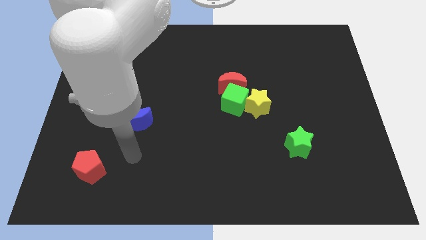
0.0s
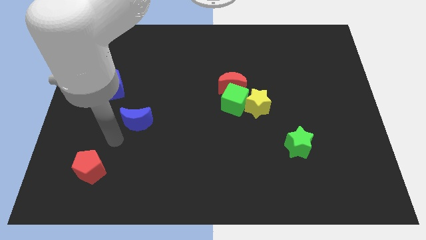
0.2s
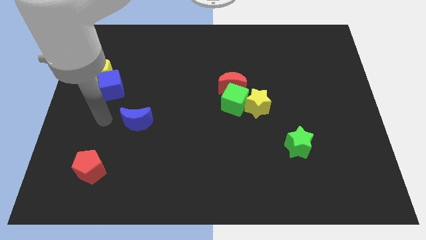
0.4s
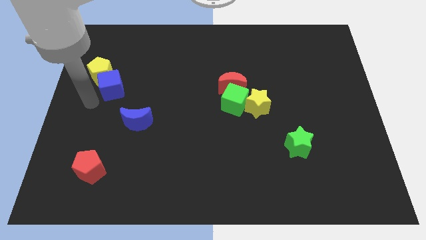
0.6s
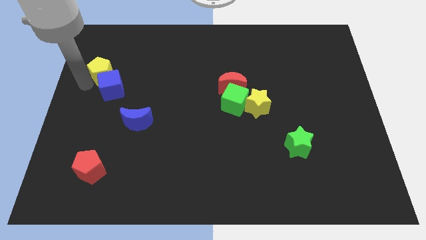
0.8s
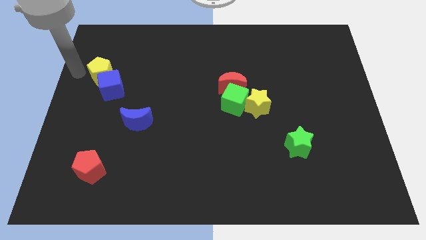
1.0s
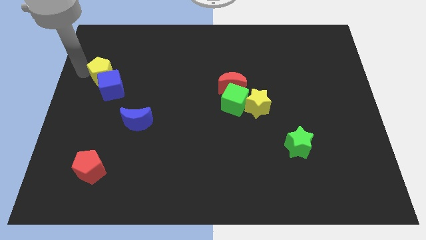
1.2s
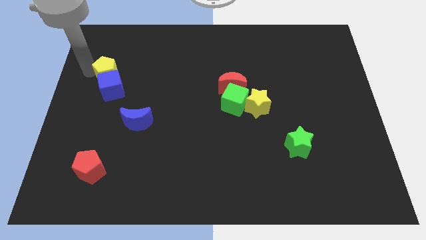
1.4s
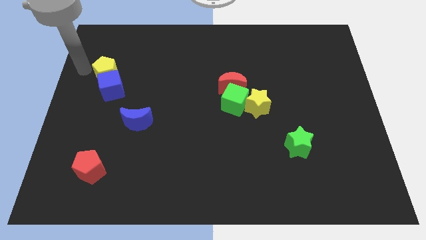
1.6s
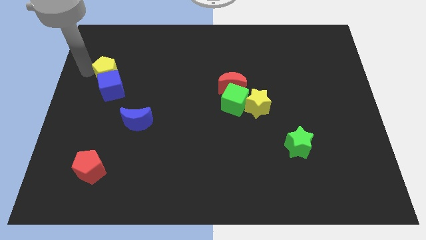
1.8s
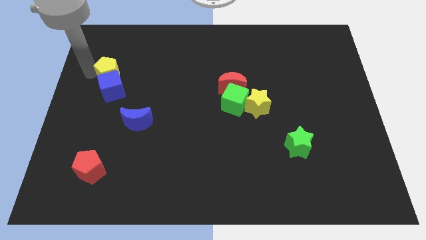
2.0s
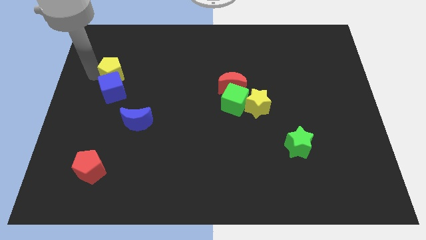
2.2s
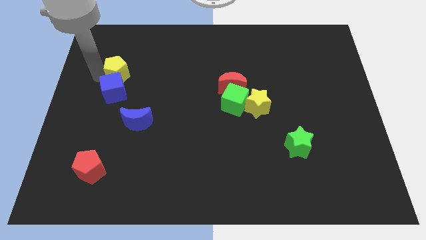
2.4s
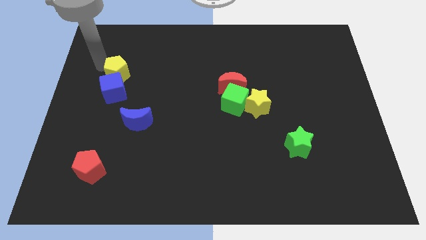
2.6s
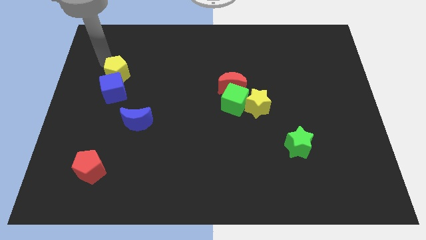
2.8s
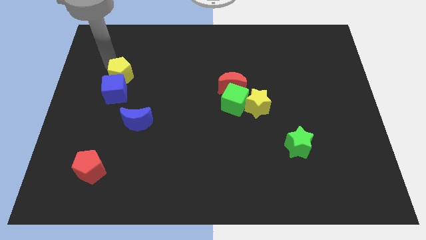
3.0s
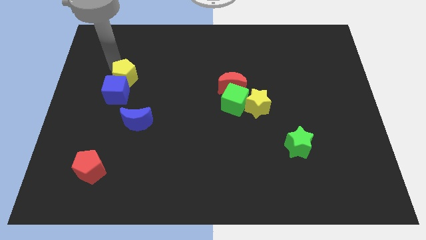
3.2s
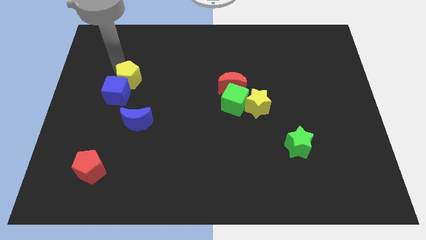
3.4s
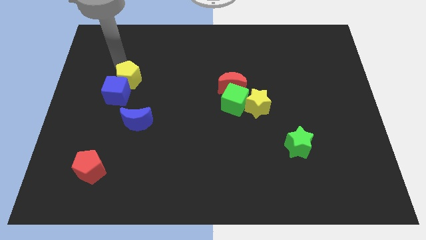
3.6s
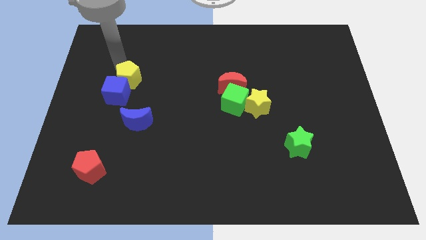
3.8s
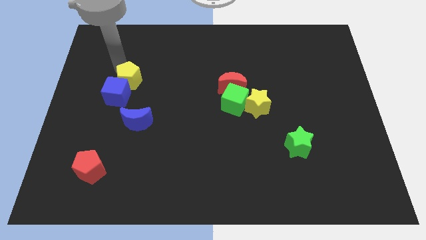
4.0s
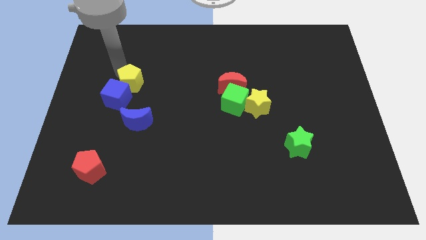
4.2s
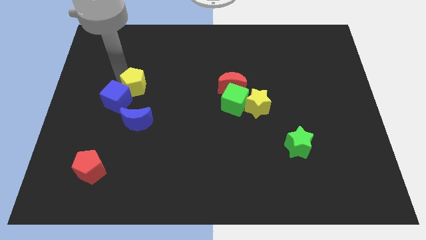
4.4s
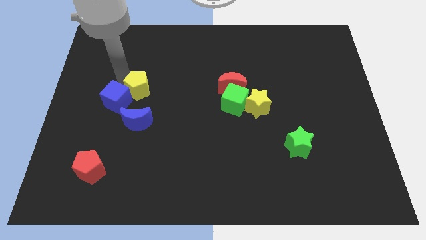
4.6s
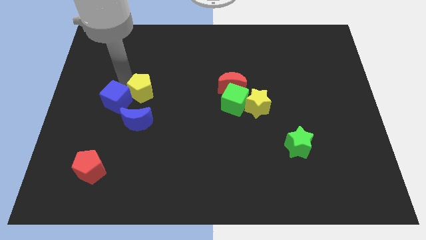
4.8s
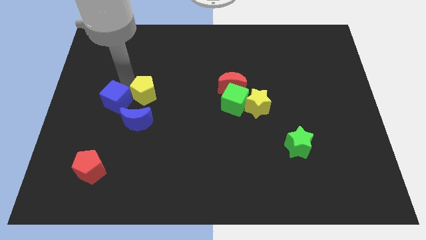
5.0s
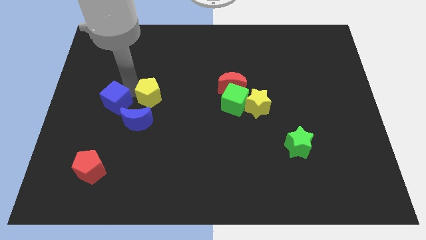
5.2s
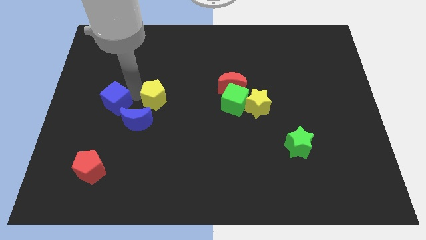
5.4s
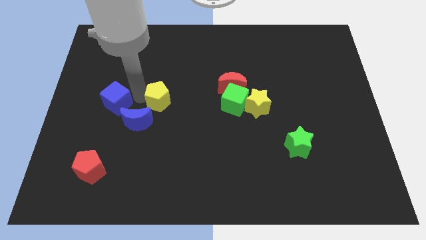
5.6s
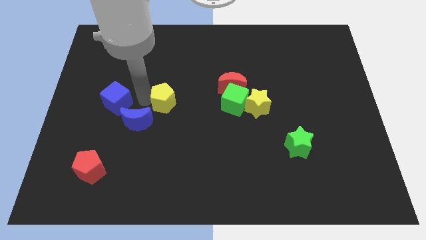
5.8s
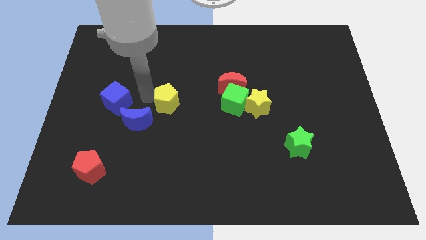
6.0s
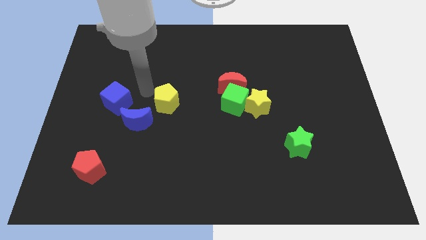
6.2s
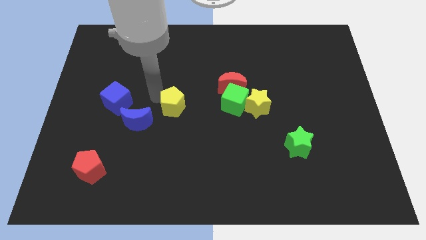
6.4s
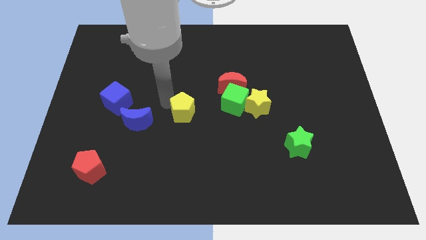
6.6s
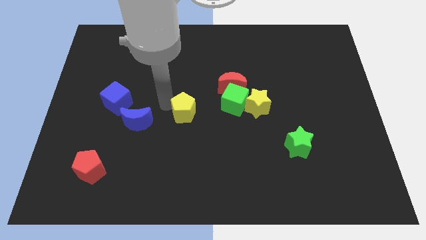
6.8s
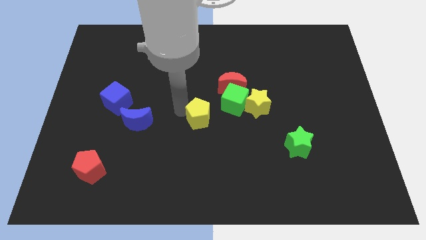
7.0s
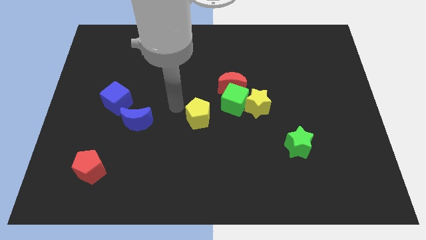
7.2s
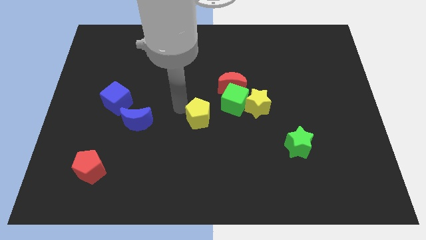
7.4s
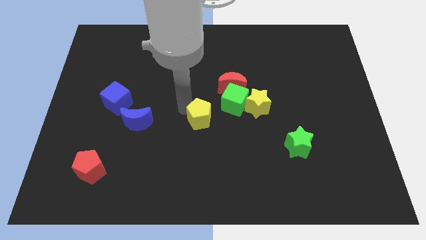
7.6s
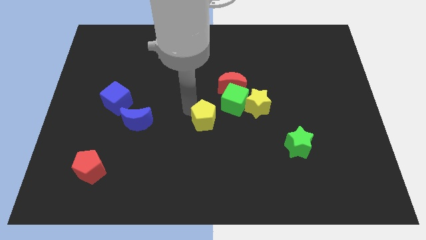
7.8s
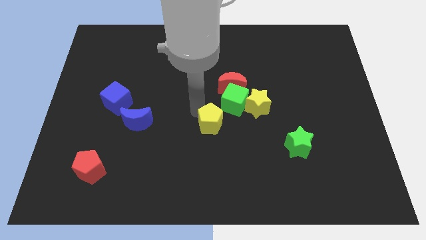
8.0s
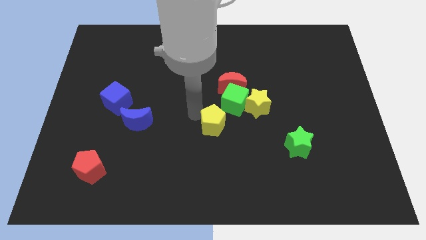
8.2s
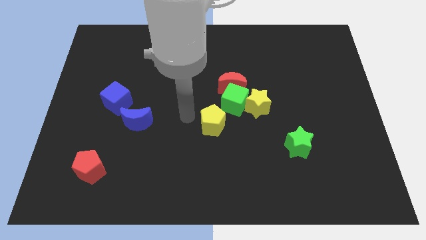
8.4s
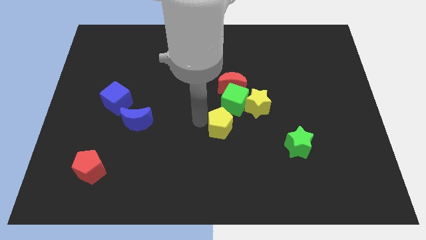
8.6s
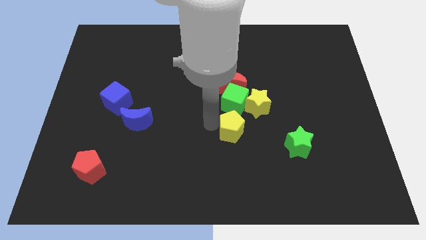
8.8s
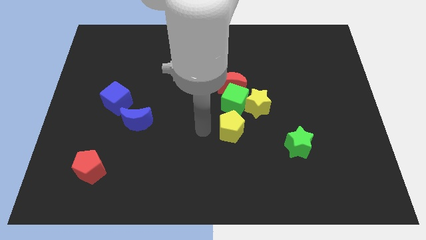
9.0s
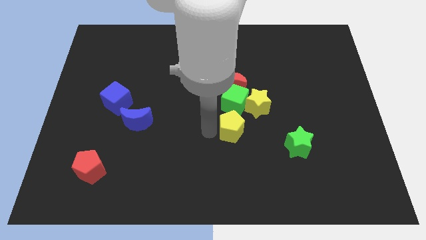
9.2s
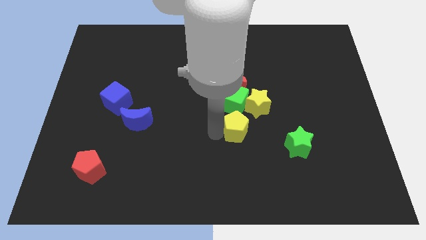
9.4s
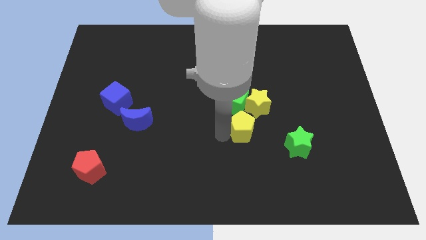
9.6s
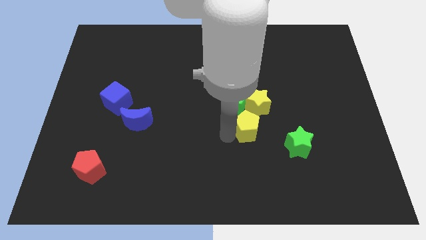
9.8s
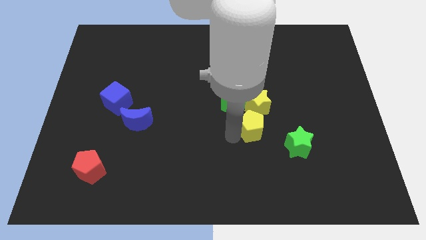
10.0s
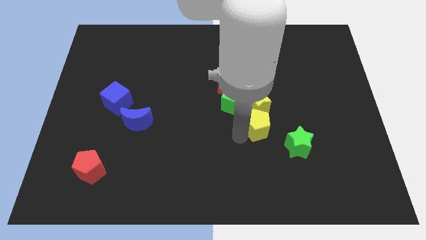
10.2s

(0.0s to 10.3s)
slide the yellow pentagon diagonally down and to the right of the yellow star

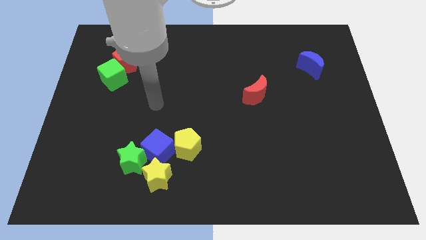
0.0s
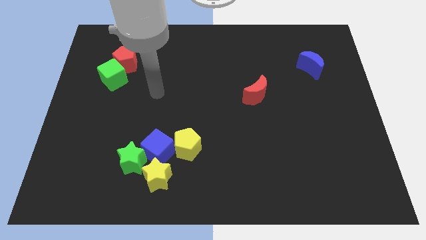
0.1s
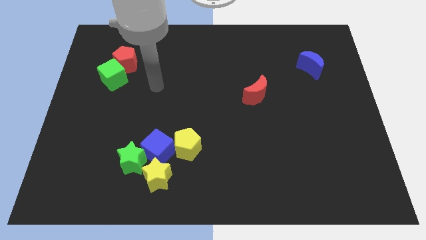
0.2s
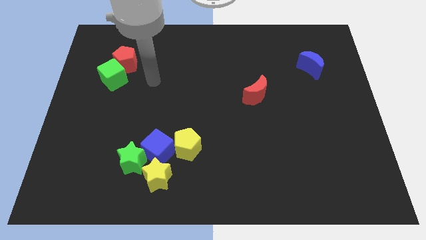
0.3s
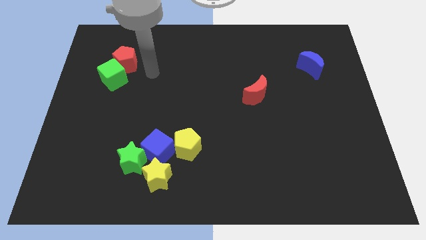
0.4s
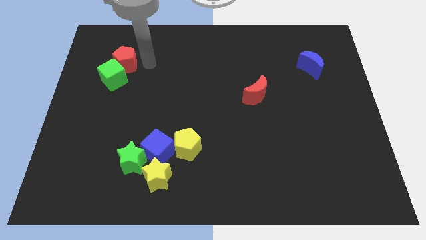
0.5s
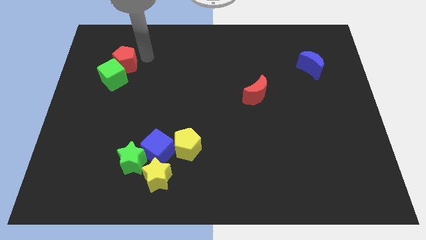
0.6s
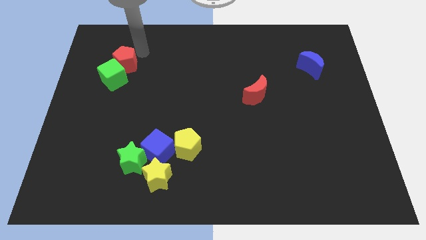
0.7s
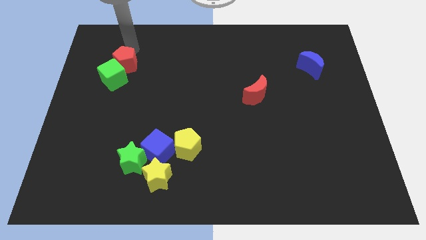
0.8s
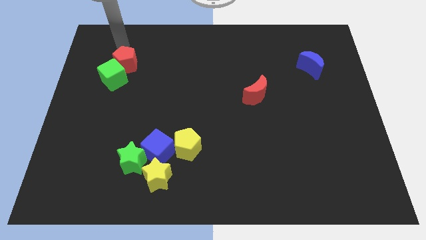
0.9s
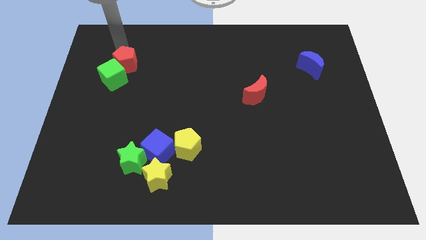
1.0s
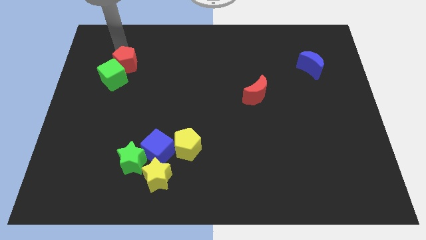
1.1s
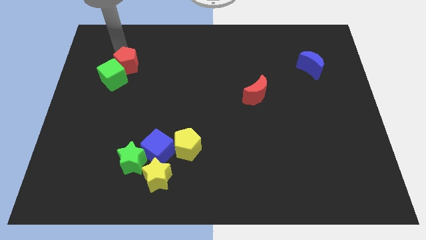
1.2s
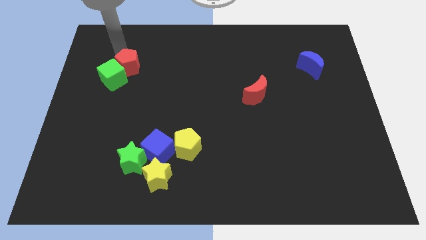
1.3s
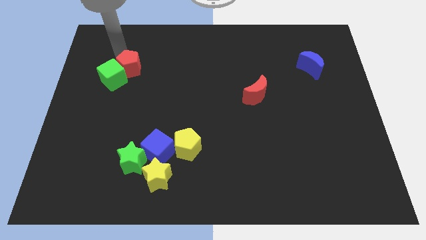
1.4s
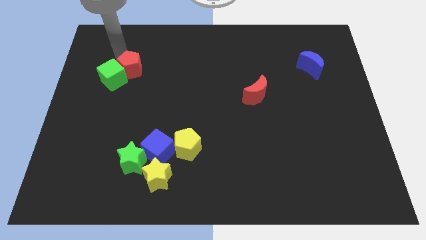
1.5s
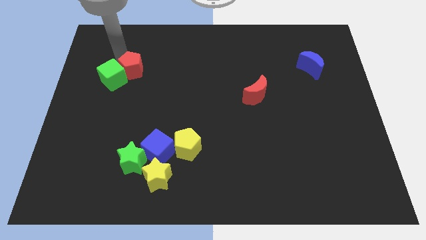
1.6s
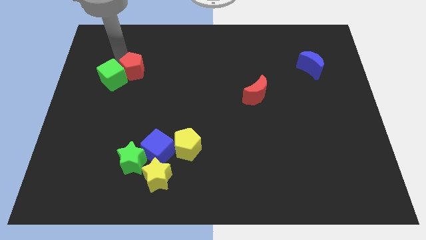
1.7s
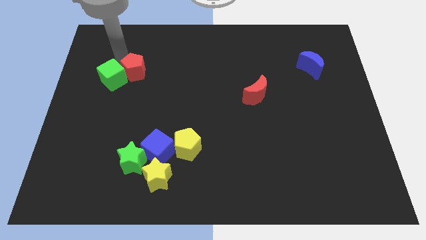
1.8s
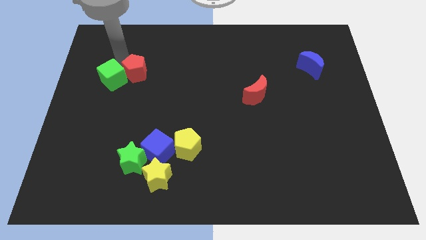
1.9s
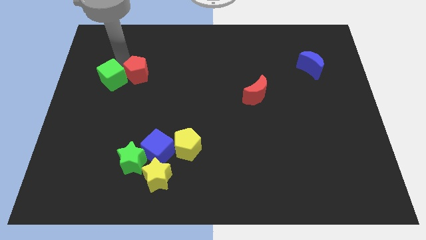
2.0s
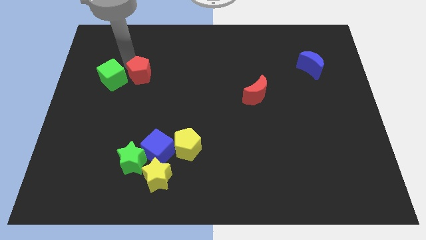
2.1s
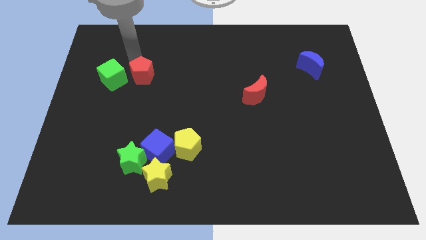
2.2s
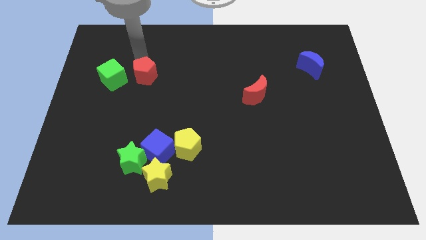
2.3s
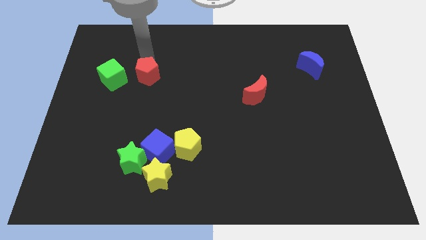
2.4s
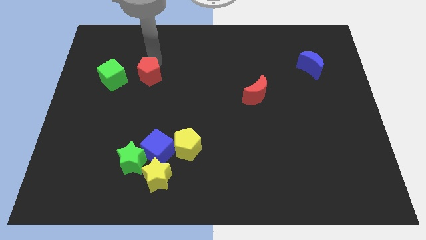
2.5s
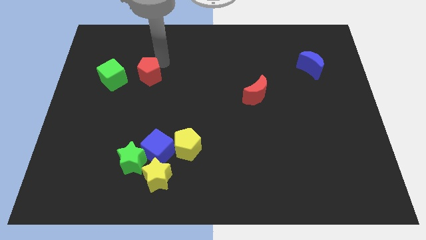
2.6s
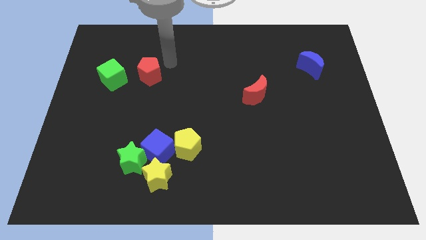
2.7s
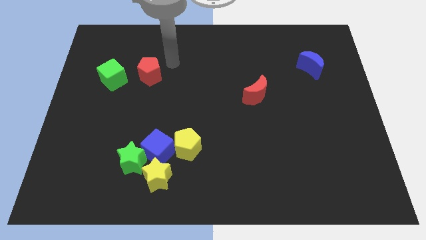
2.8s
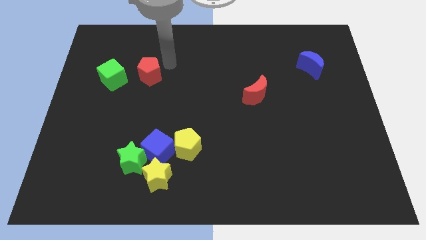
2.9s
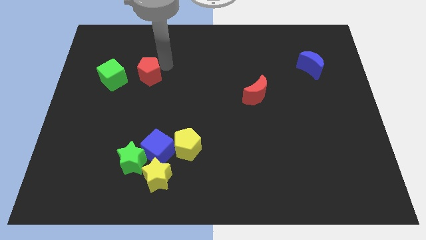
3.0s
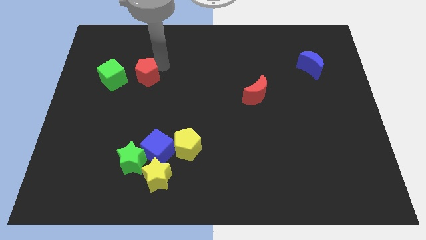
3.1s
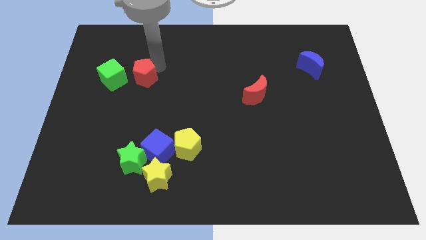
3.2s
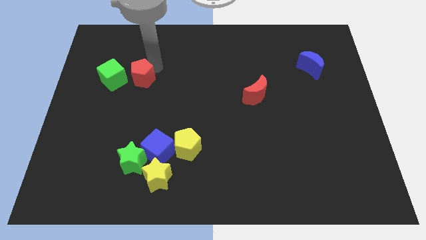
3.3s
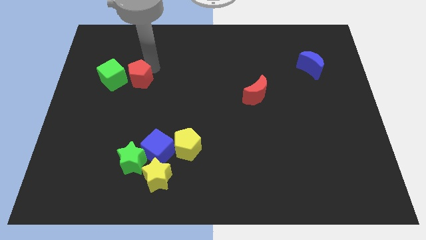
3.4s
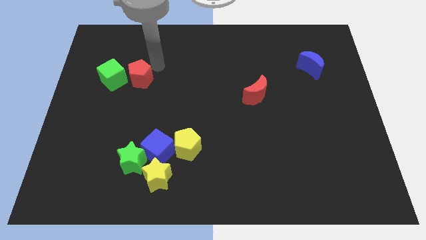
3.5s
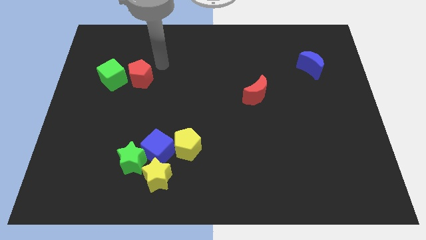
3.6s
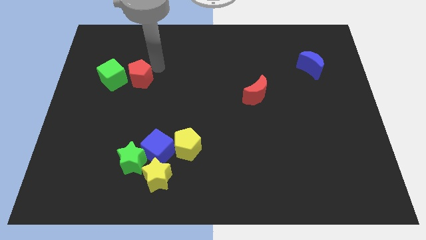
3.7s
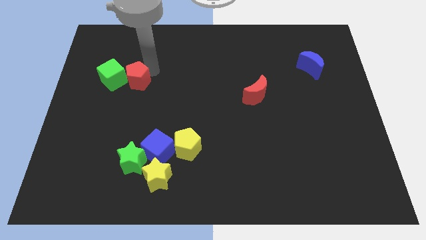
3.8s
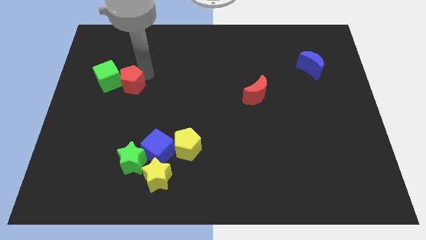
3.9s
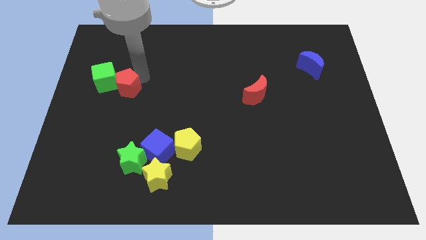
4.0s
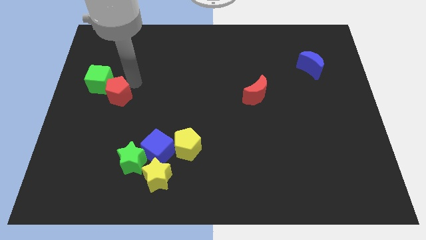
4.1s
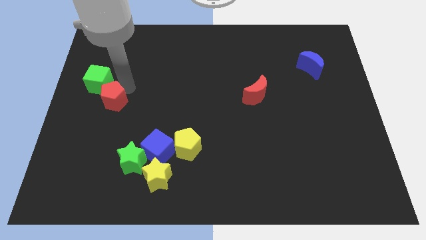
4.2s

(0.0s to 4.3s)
put the red pentagon to the bottom side of the green cube
